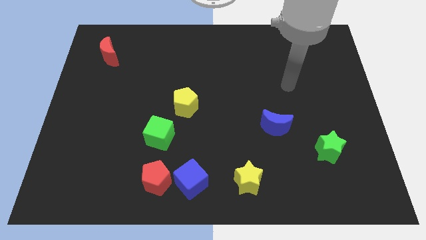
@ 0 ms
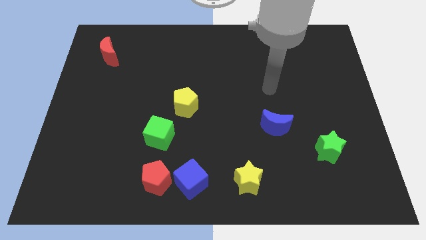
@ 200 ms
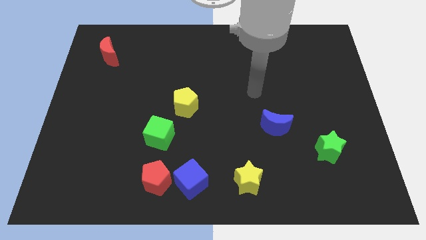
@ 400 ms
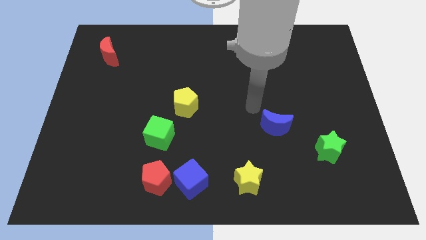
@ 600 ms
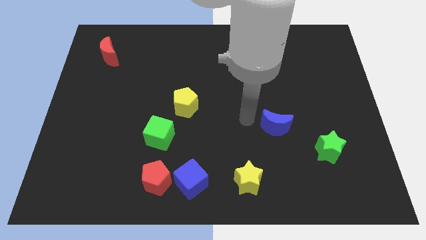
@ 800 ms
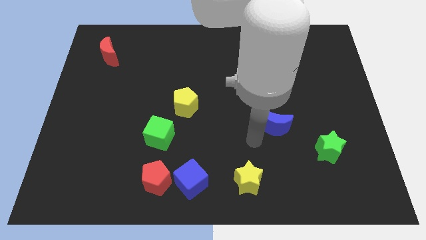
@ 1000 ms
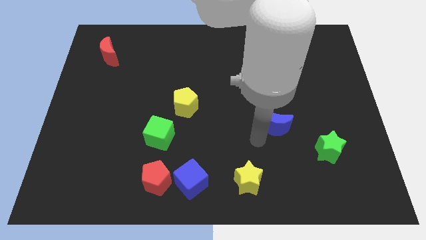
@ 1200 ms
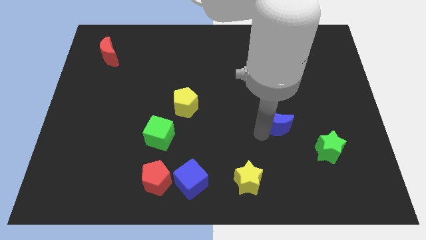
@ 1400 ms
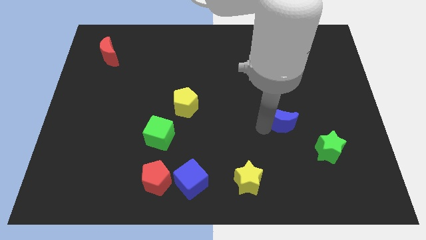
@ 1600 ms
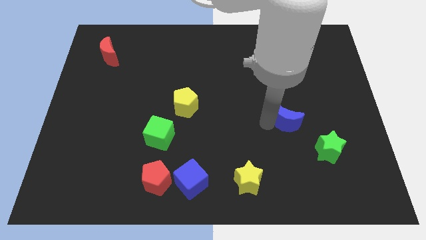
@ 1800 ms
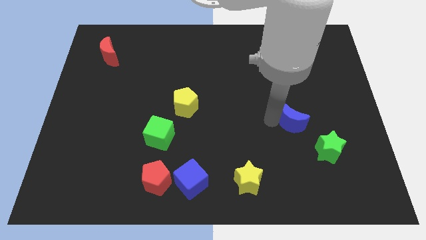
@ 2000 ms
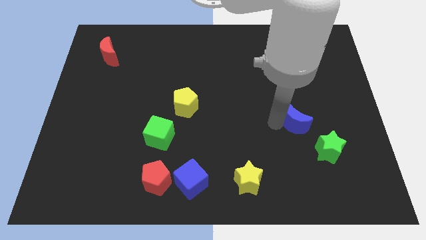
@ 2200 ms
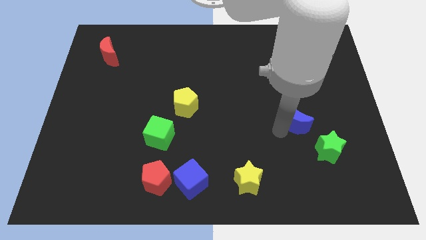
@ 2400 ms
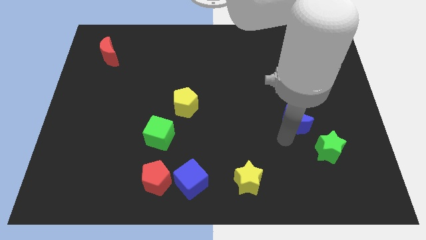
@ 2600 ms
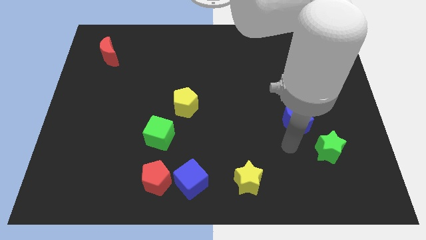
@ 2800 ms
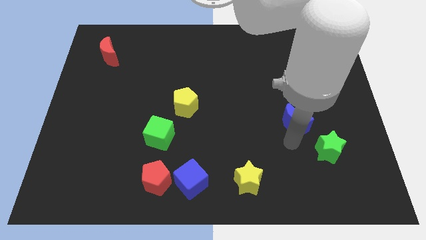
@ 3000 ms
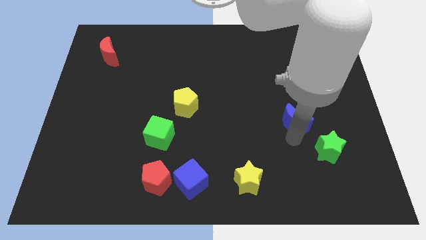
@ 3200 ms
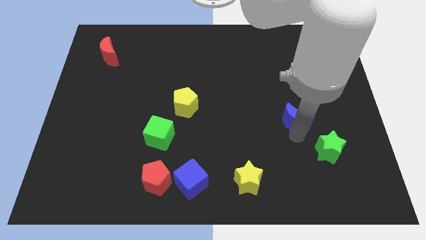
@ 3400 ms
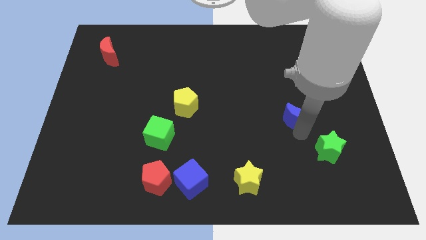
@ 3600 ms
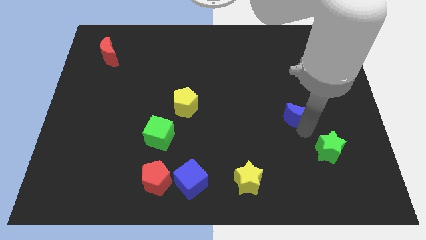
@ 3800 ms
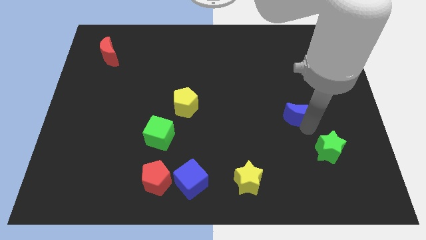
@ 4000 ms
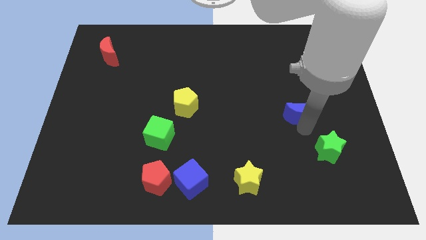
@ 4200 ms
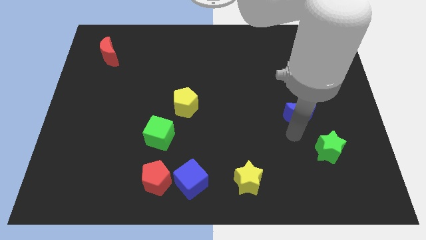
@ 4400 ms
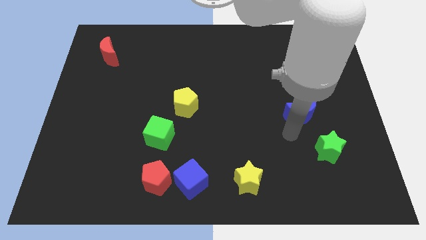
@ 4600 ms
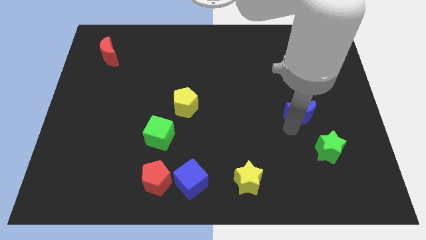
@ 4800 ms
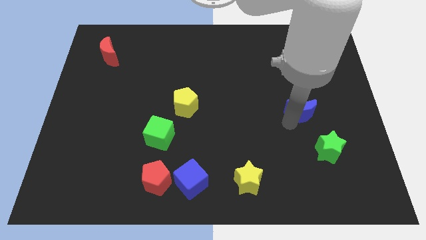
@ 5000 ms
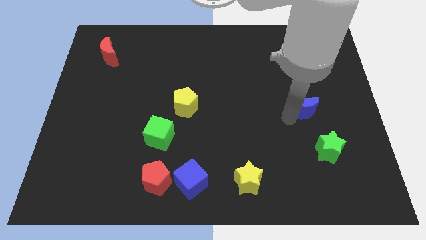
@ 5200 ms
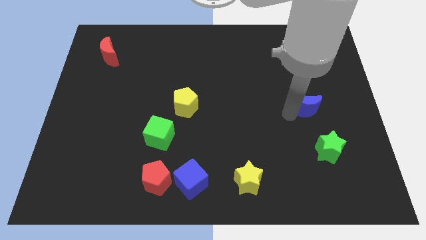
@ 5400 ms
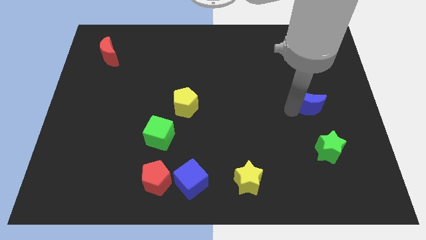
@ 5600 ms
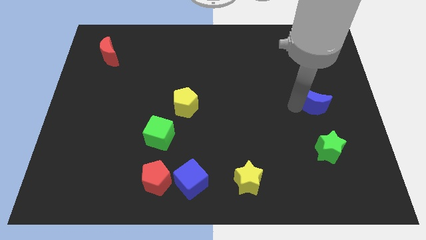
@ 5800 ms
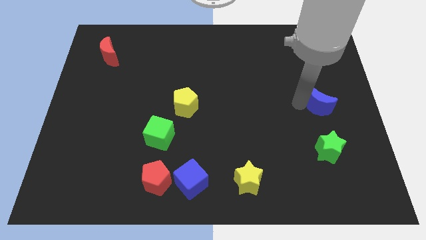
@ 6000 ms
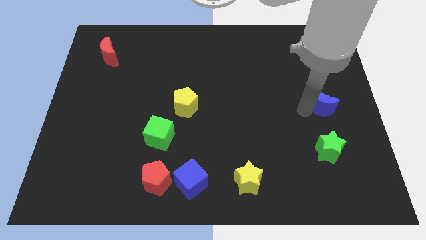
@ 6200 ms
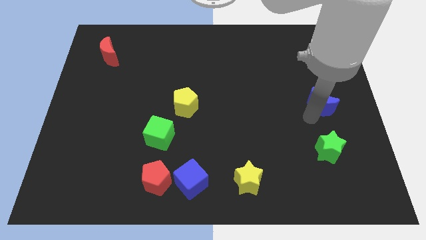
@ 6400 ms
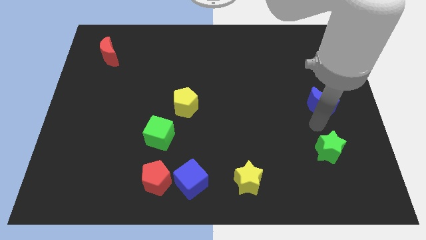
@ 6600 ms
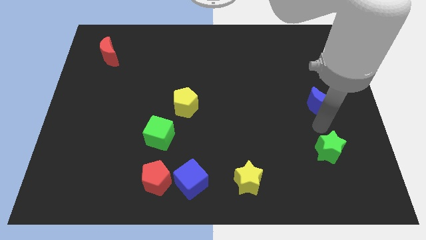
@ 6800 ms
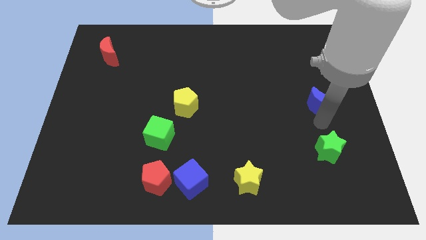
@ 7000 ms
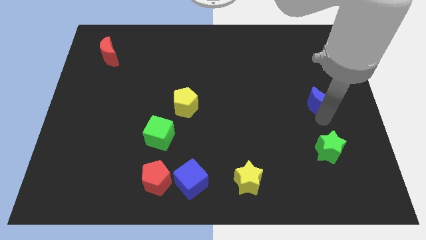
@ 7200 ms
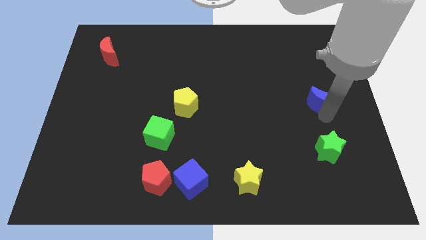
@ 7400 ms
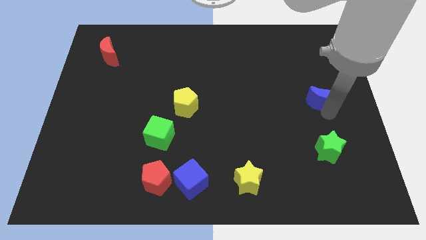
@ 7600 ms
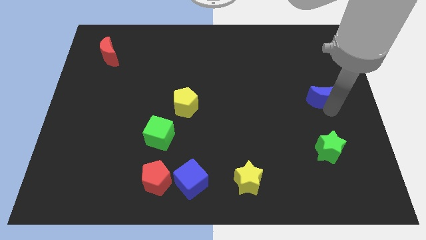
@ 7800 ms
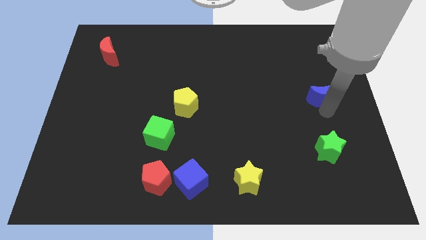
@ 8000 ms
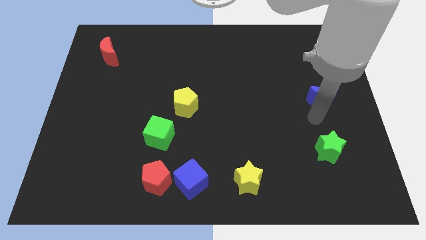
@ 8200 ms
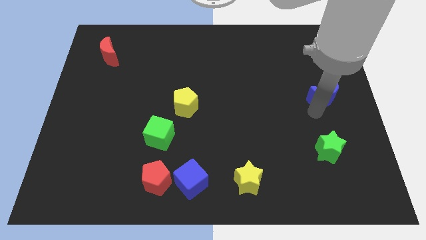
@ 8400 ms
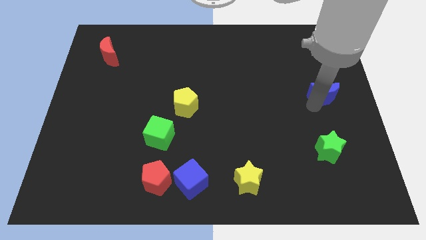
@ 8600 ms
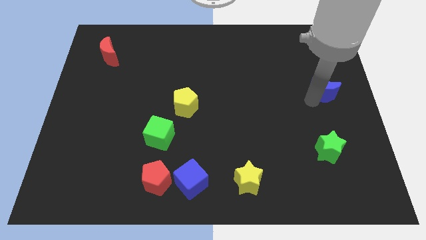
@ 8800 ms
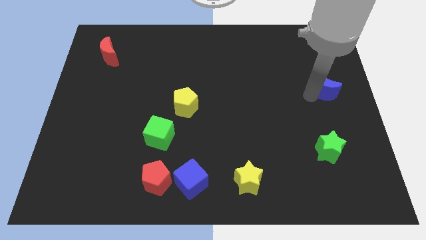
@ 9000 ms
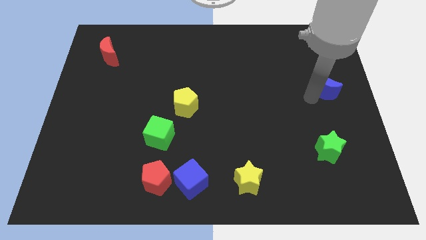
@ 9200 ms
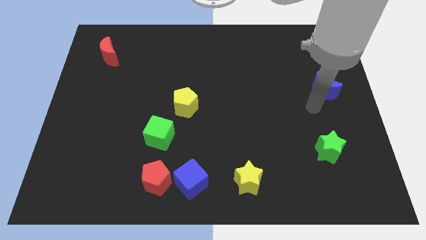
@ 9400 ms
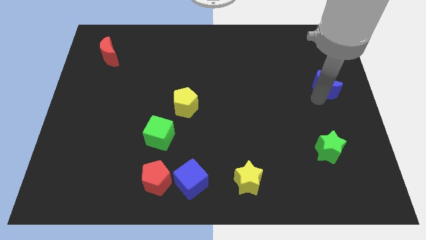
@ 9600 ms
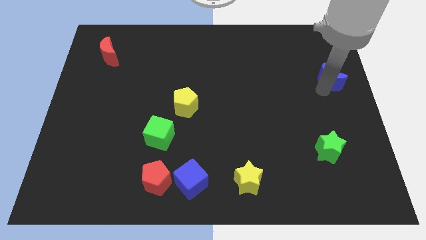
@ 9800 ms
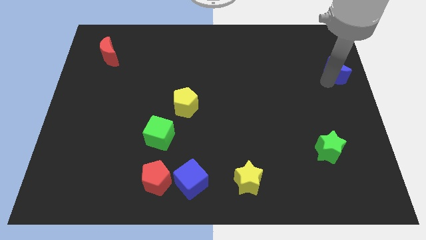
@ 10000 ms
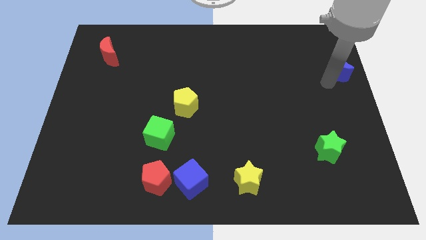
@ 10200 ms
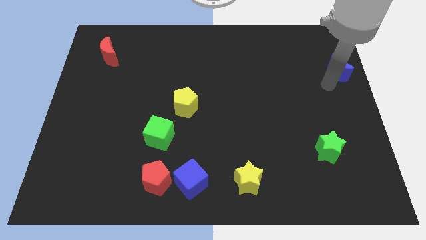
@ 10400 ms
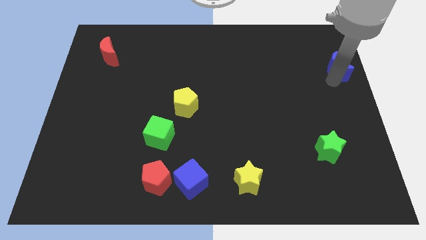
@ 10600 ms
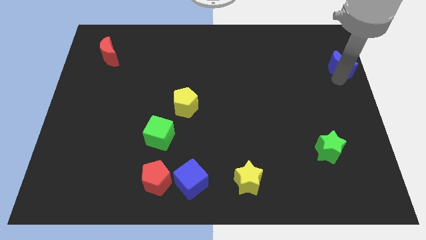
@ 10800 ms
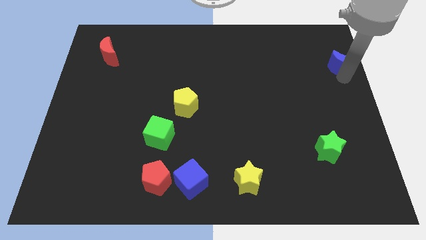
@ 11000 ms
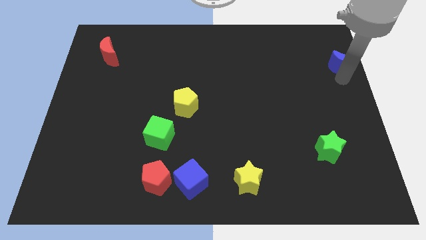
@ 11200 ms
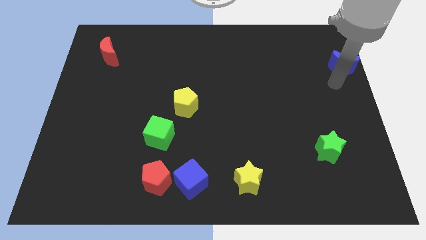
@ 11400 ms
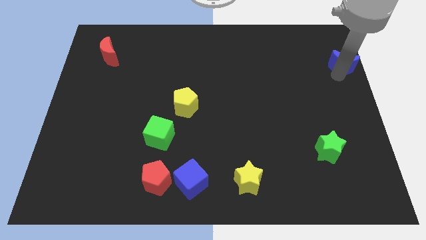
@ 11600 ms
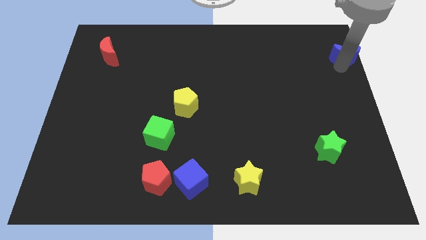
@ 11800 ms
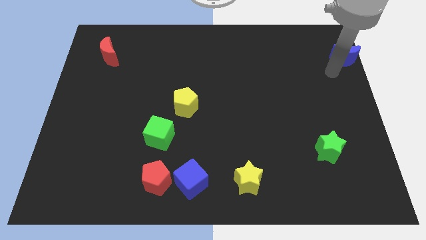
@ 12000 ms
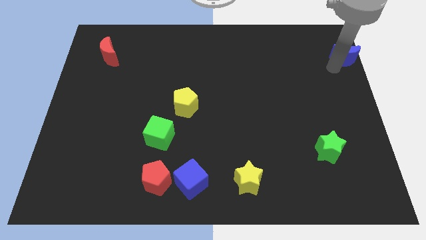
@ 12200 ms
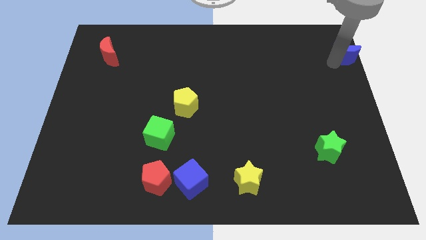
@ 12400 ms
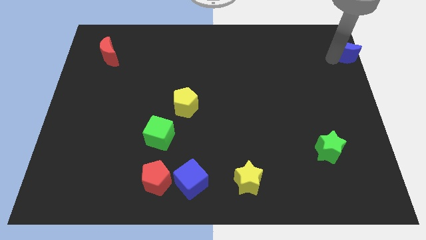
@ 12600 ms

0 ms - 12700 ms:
put the blue moon to the top right corner
